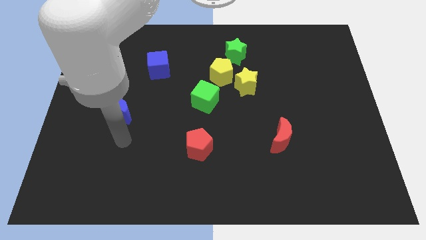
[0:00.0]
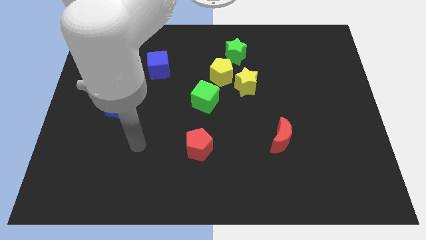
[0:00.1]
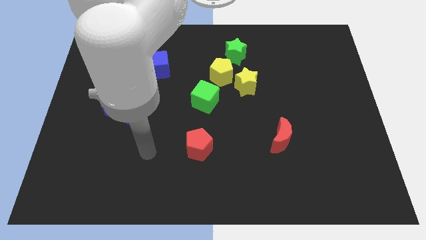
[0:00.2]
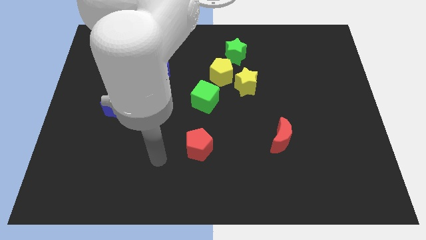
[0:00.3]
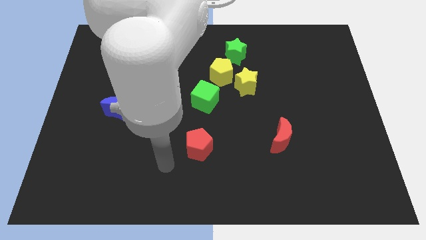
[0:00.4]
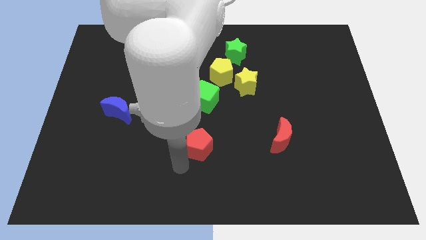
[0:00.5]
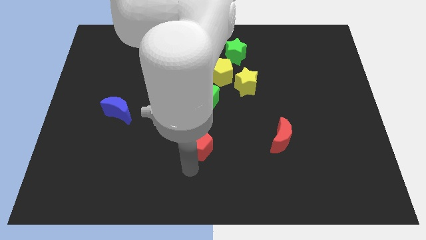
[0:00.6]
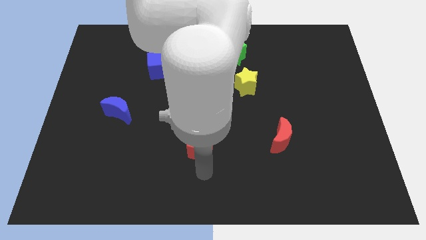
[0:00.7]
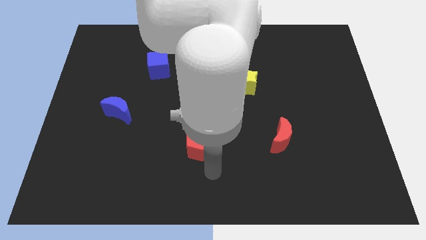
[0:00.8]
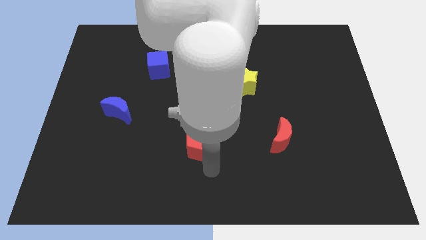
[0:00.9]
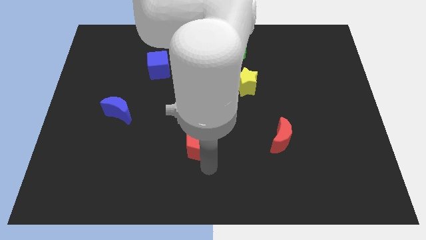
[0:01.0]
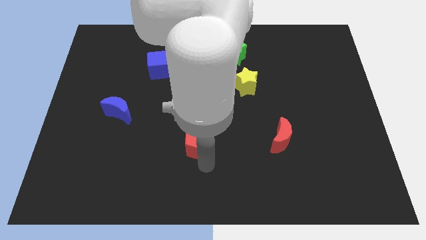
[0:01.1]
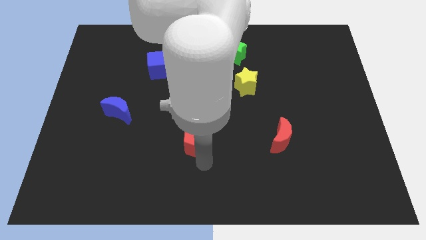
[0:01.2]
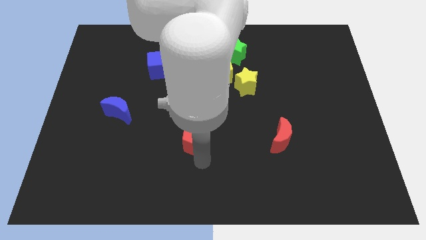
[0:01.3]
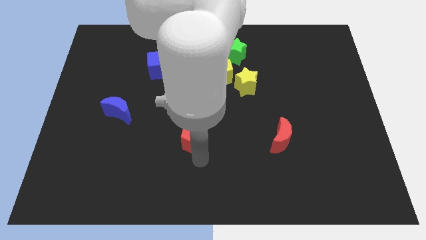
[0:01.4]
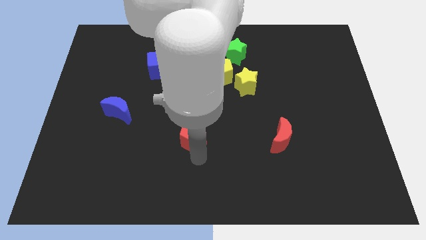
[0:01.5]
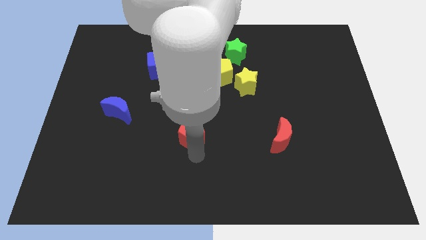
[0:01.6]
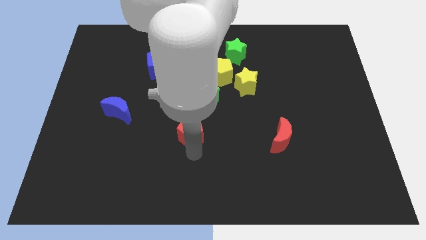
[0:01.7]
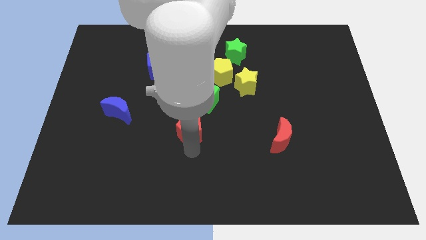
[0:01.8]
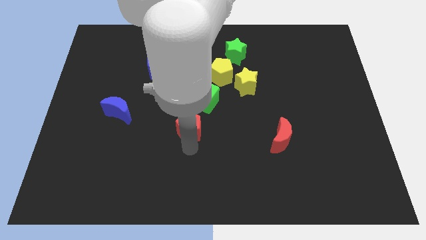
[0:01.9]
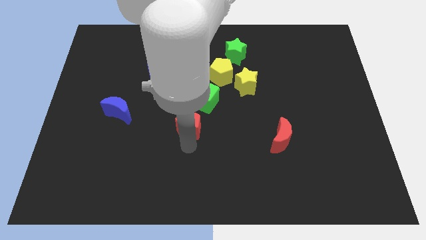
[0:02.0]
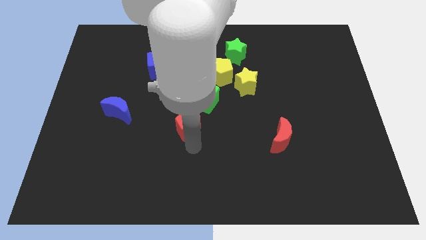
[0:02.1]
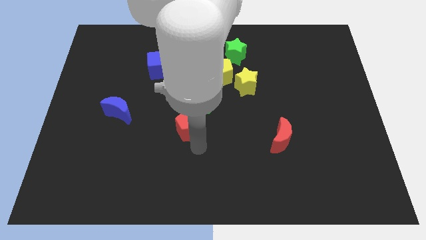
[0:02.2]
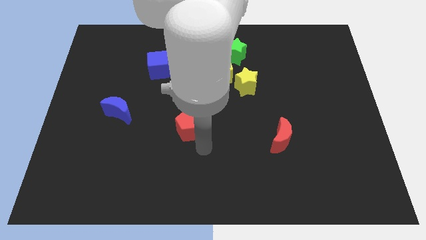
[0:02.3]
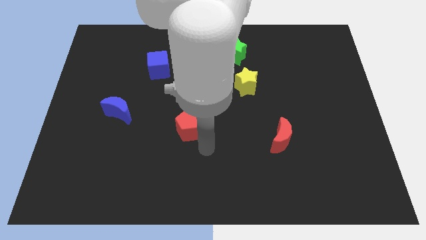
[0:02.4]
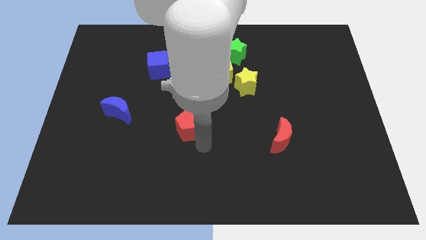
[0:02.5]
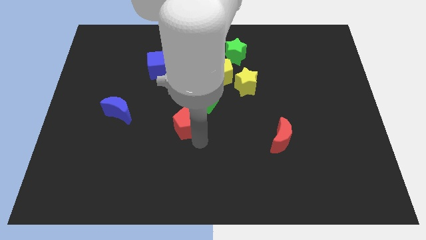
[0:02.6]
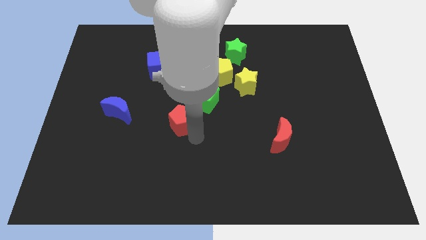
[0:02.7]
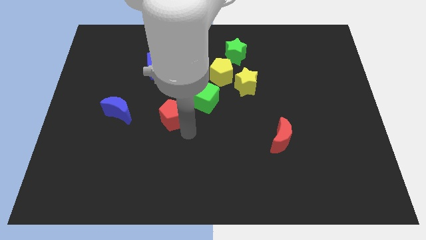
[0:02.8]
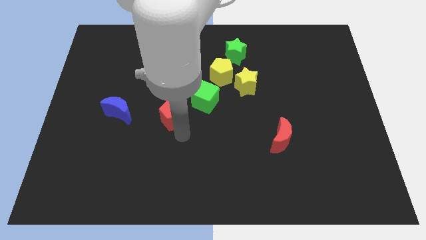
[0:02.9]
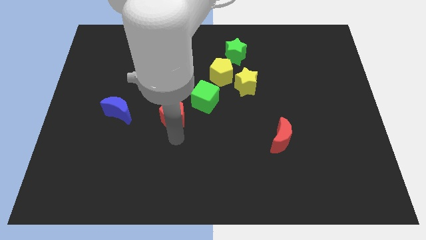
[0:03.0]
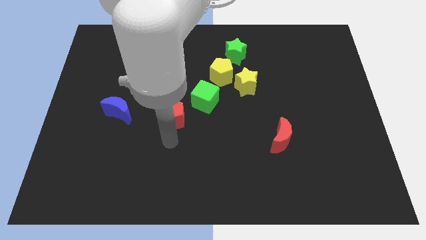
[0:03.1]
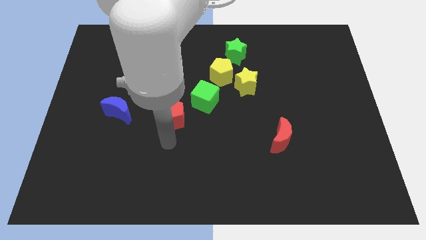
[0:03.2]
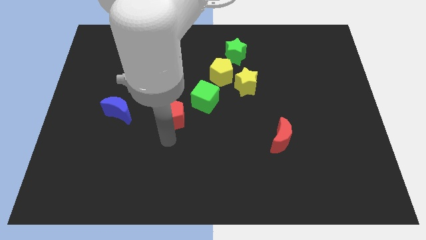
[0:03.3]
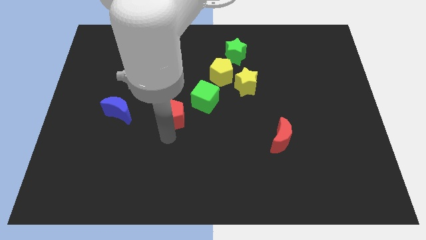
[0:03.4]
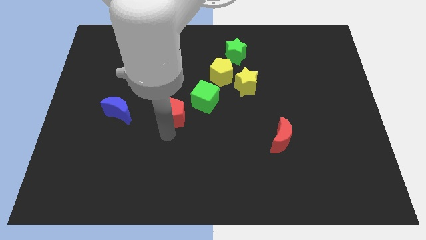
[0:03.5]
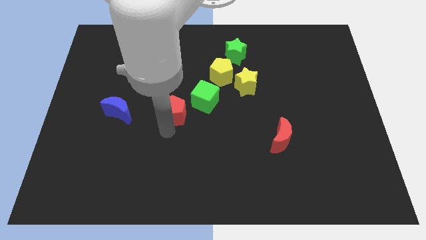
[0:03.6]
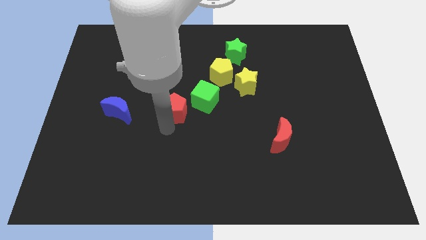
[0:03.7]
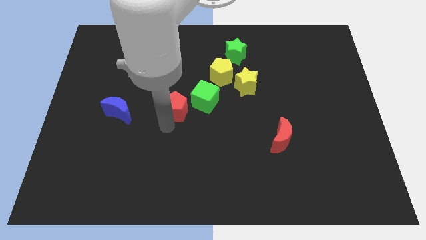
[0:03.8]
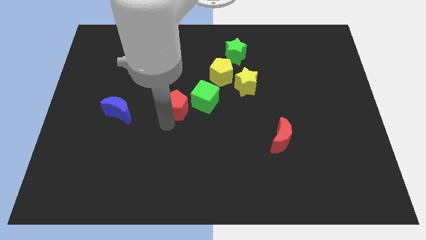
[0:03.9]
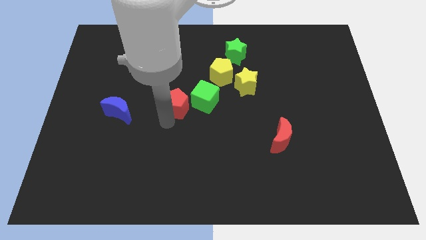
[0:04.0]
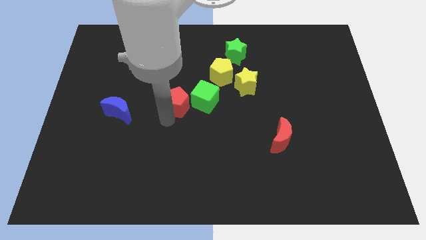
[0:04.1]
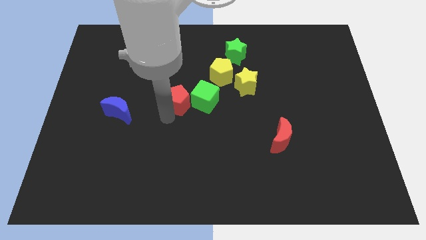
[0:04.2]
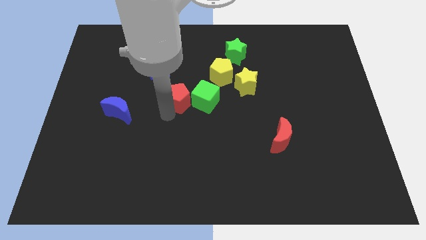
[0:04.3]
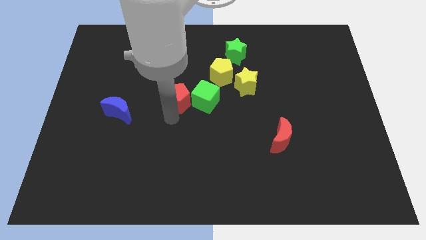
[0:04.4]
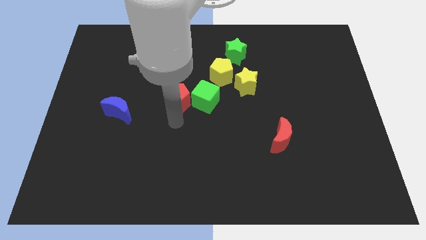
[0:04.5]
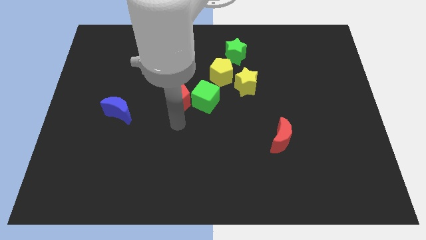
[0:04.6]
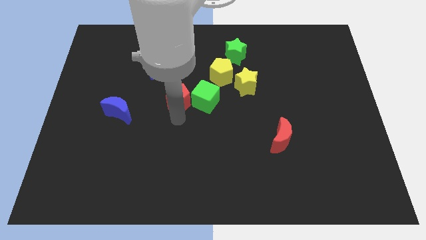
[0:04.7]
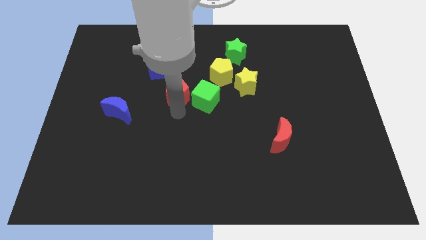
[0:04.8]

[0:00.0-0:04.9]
move the red pentagon to the bottom right side of the blue cube

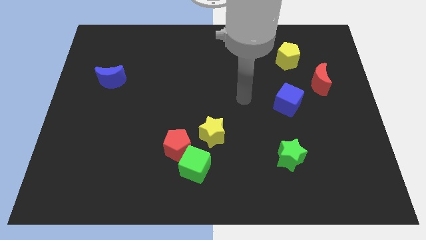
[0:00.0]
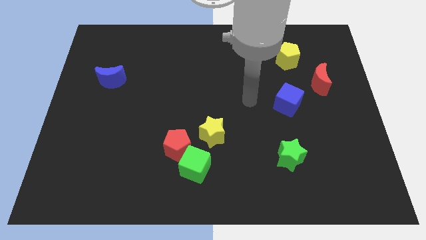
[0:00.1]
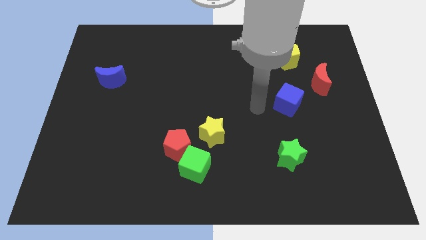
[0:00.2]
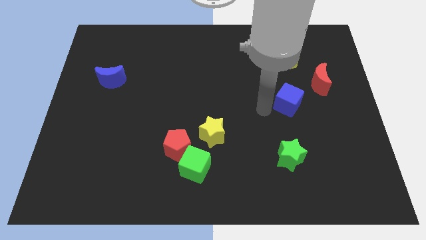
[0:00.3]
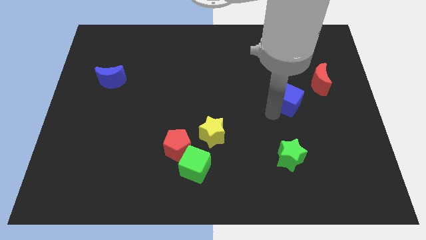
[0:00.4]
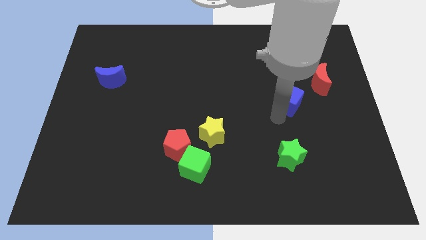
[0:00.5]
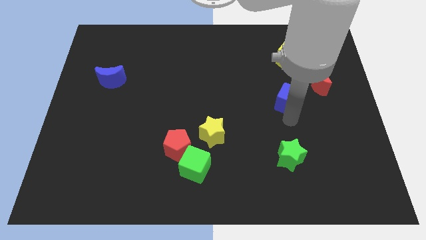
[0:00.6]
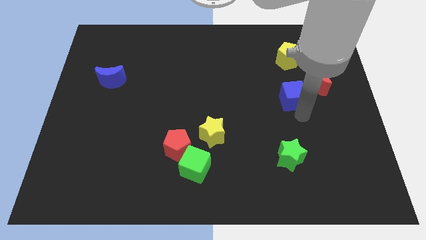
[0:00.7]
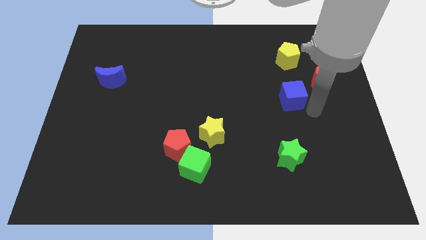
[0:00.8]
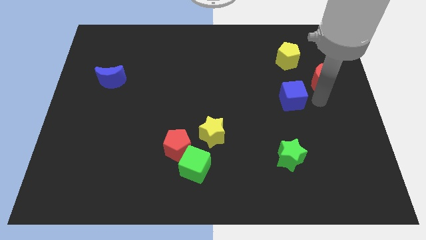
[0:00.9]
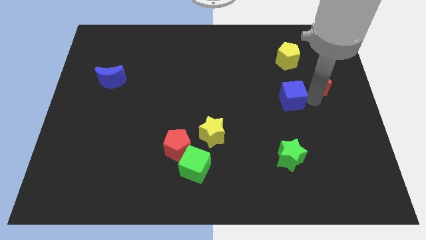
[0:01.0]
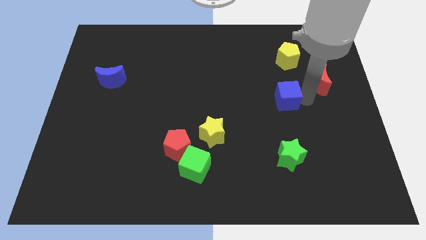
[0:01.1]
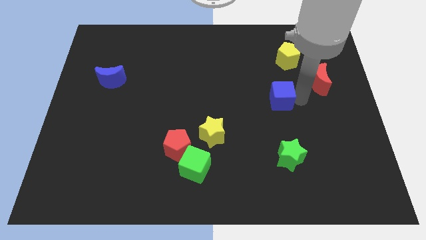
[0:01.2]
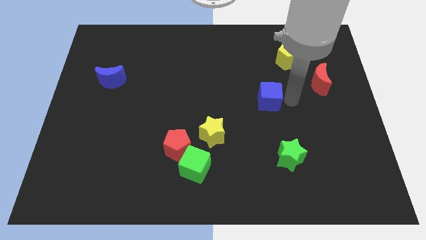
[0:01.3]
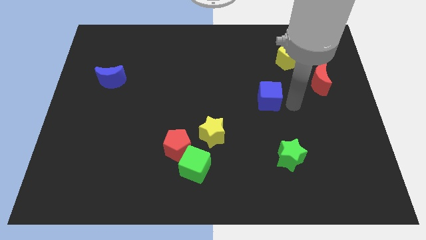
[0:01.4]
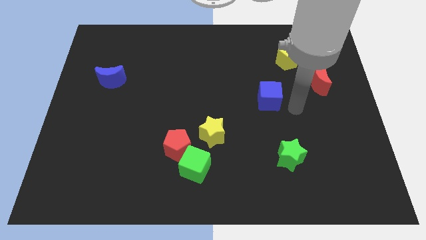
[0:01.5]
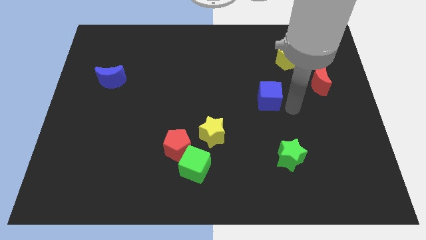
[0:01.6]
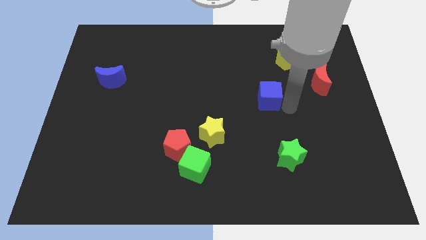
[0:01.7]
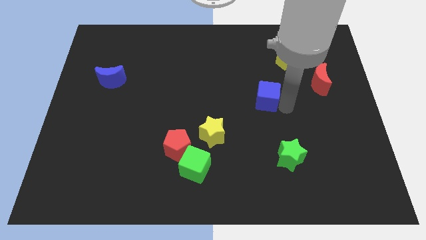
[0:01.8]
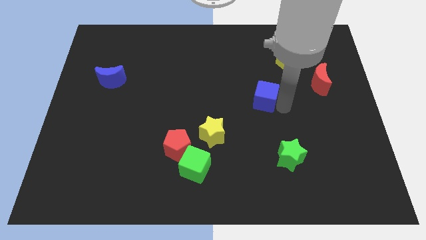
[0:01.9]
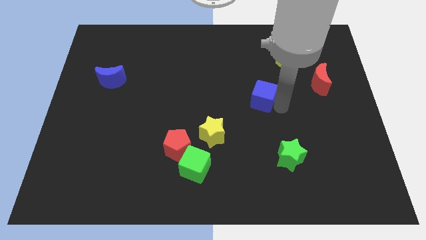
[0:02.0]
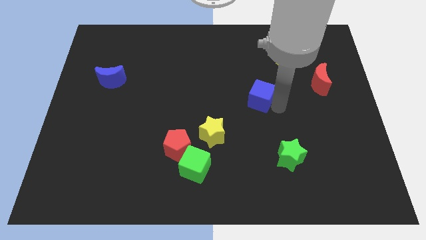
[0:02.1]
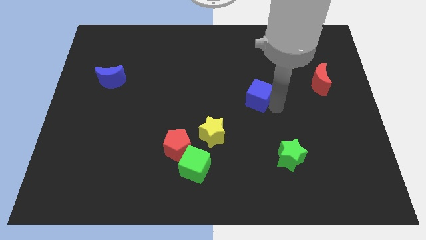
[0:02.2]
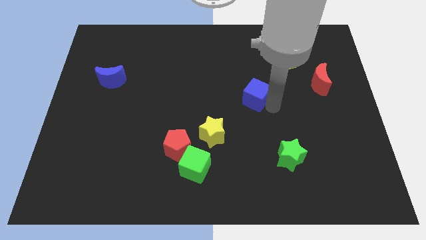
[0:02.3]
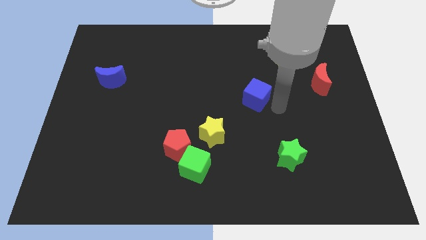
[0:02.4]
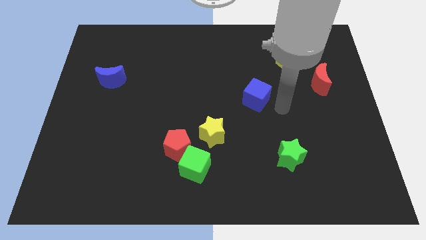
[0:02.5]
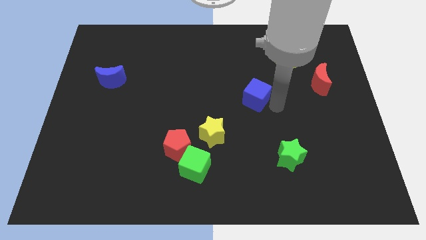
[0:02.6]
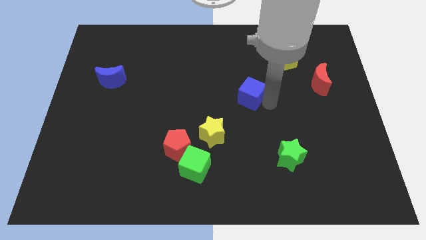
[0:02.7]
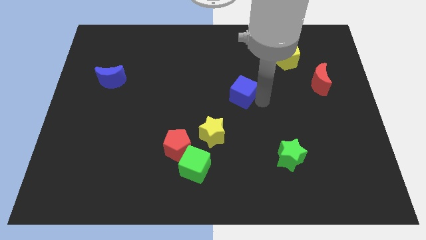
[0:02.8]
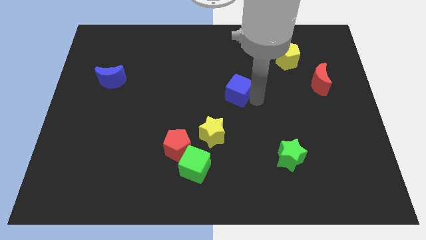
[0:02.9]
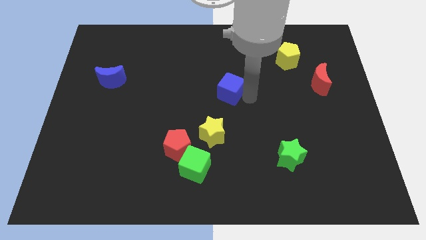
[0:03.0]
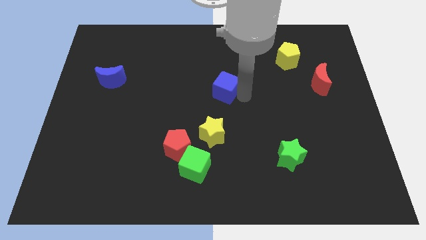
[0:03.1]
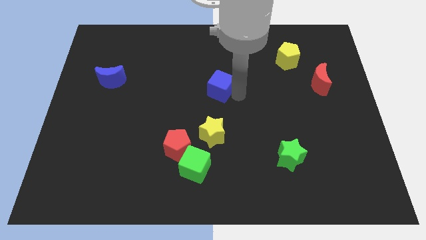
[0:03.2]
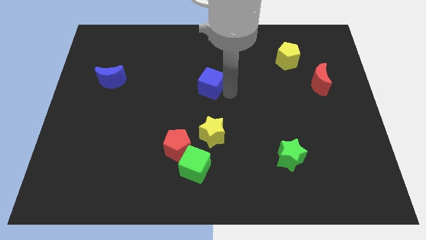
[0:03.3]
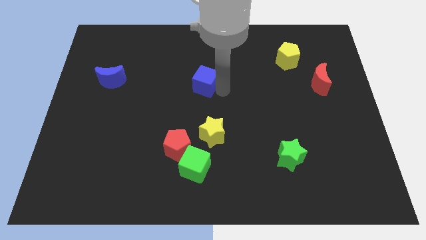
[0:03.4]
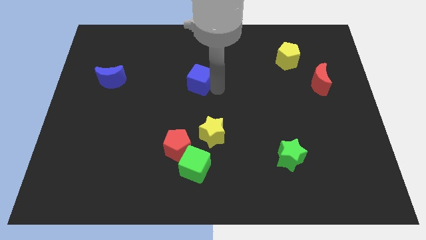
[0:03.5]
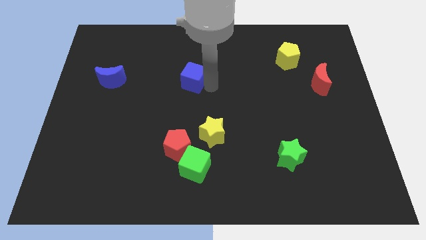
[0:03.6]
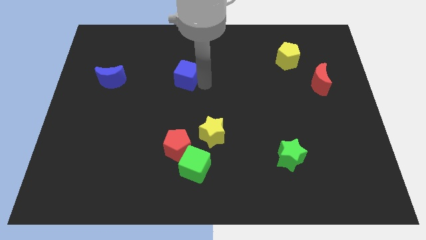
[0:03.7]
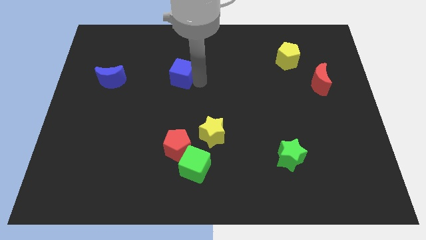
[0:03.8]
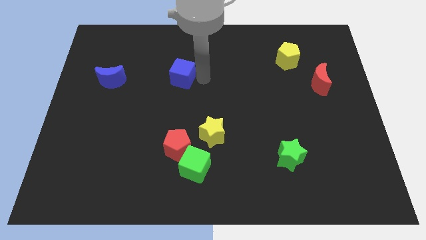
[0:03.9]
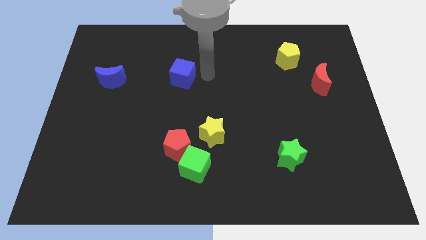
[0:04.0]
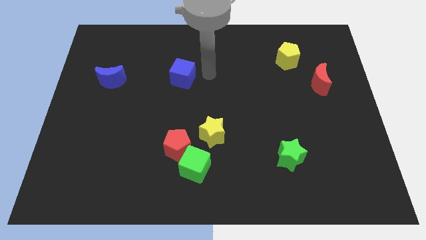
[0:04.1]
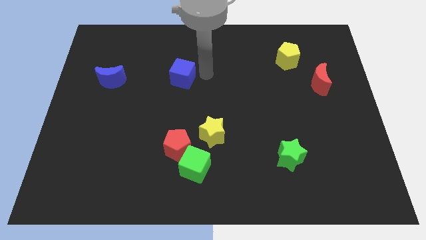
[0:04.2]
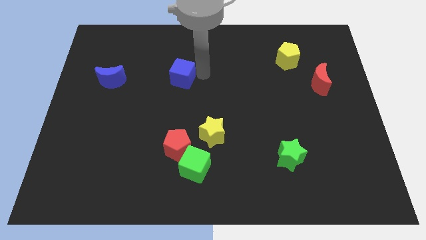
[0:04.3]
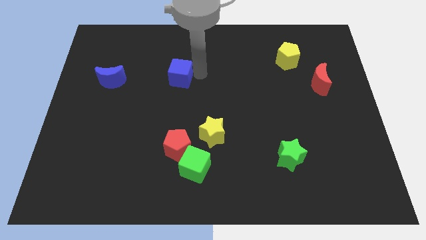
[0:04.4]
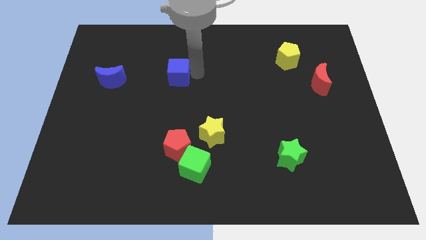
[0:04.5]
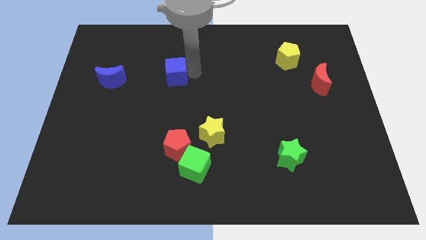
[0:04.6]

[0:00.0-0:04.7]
move the blue cube right of the blue moon
